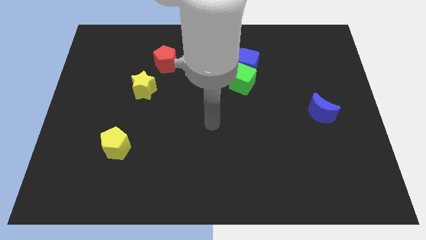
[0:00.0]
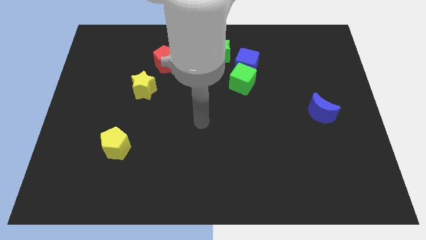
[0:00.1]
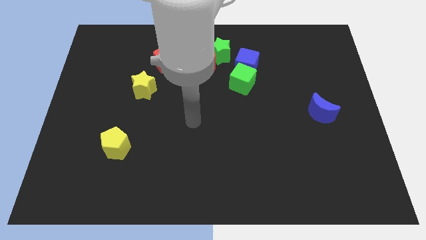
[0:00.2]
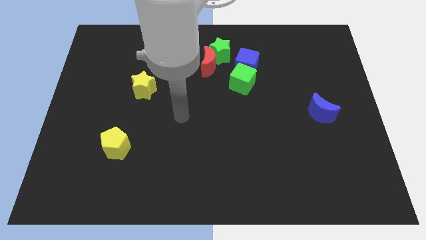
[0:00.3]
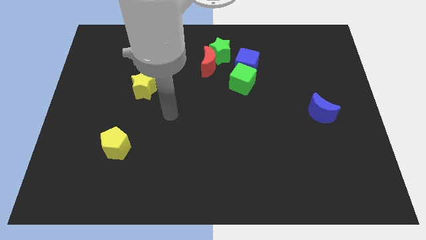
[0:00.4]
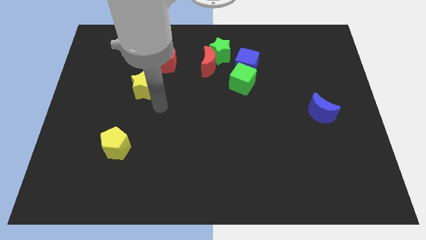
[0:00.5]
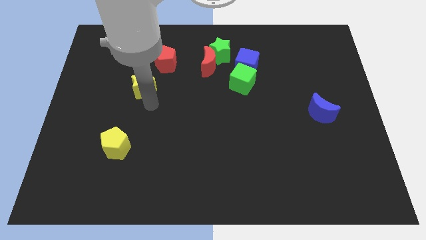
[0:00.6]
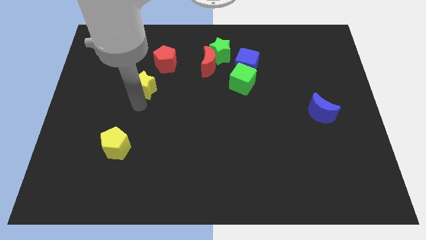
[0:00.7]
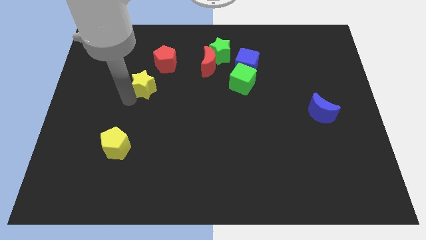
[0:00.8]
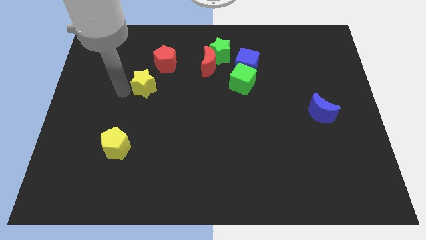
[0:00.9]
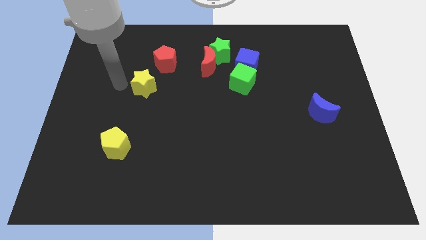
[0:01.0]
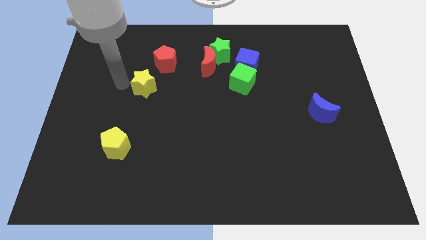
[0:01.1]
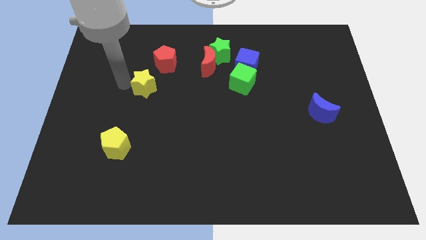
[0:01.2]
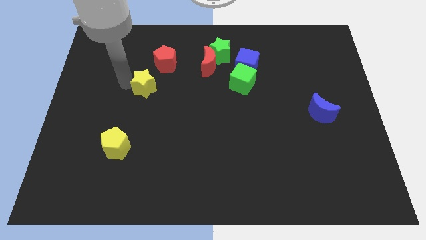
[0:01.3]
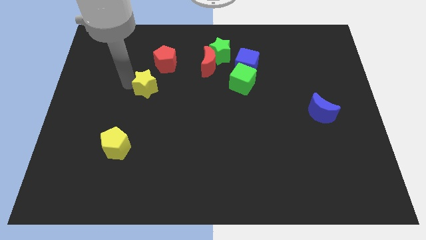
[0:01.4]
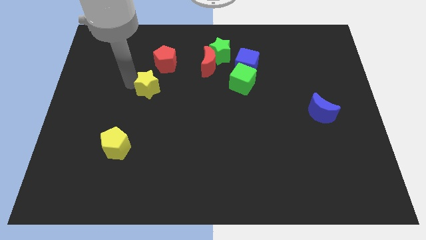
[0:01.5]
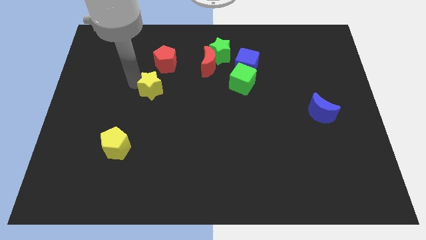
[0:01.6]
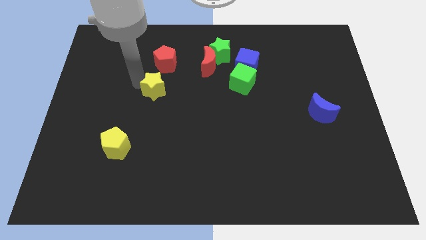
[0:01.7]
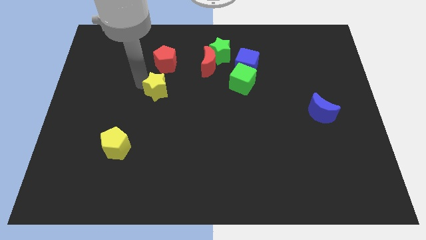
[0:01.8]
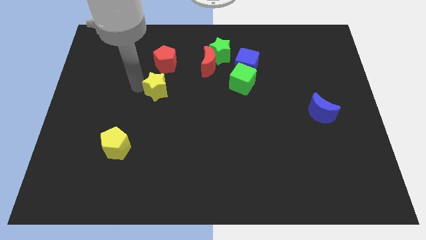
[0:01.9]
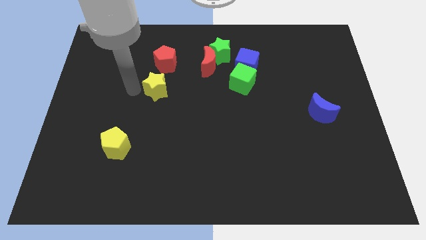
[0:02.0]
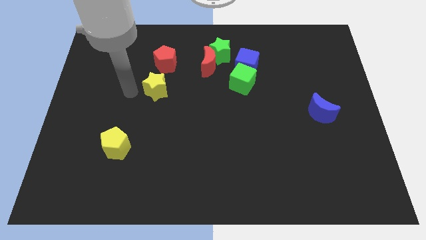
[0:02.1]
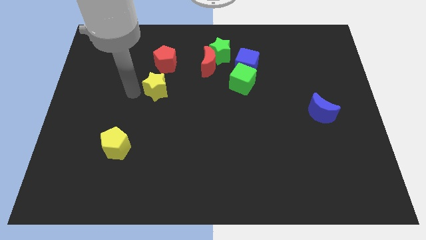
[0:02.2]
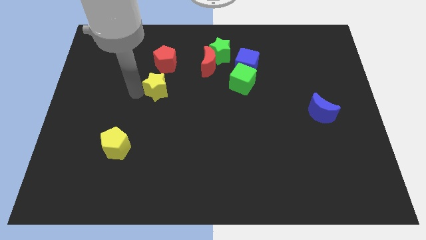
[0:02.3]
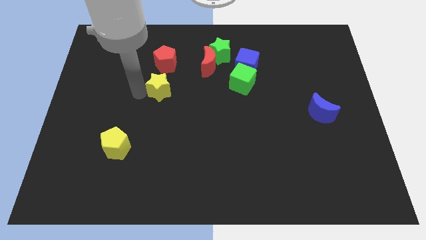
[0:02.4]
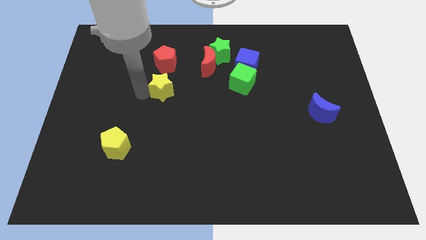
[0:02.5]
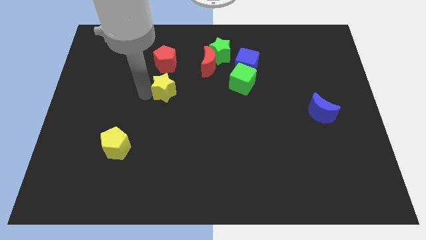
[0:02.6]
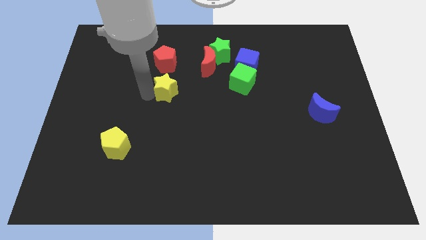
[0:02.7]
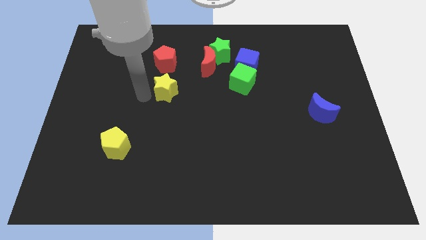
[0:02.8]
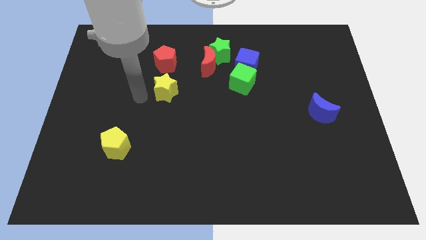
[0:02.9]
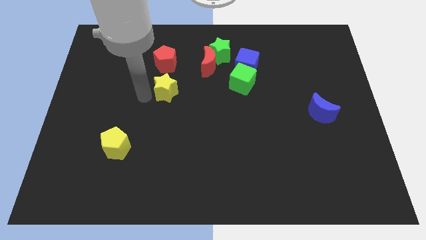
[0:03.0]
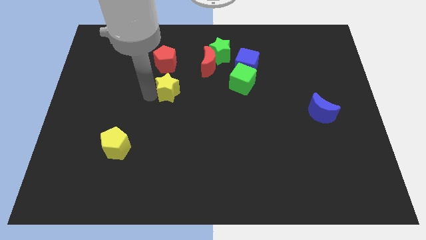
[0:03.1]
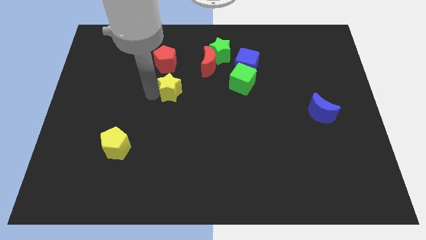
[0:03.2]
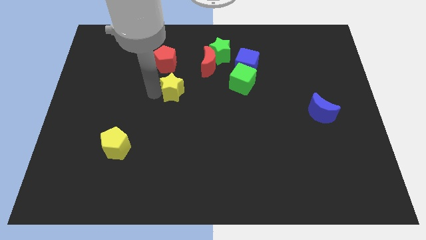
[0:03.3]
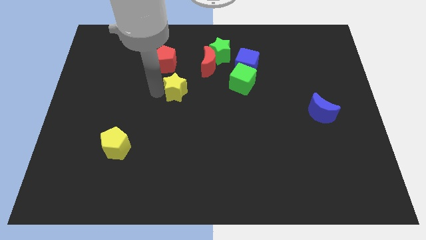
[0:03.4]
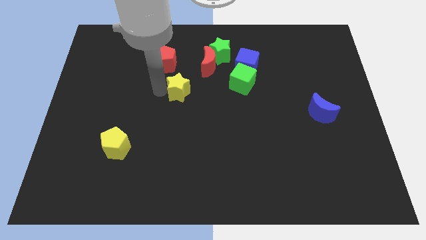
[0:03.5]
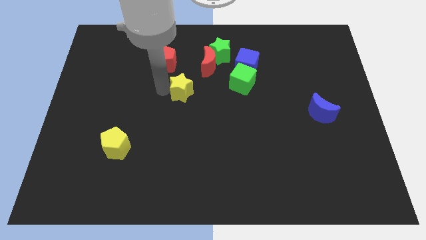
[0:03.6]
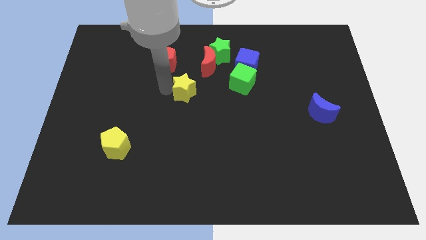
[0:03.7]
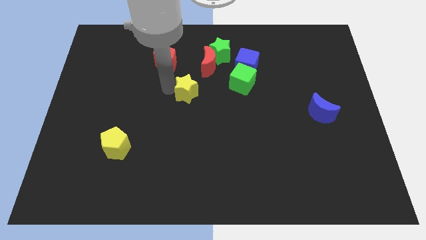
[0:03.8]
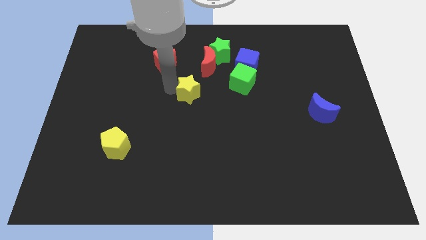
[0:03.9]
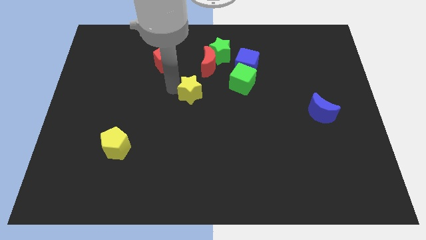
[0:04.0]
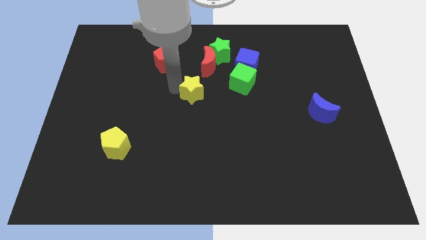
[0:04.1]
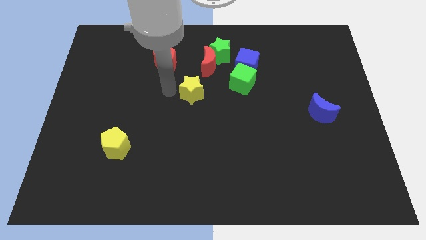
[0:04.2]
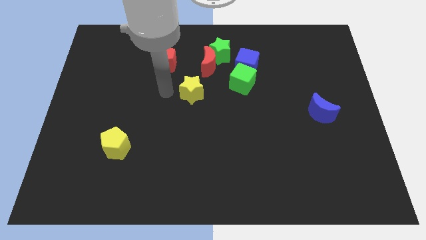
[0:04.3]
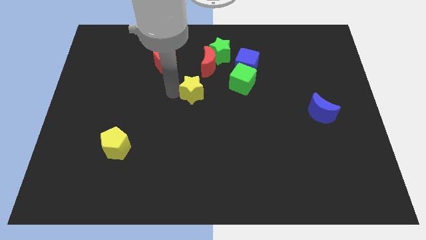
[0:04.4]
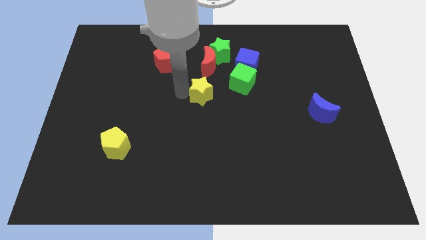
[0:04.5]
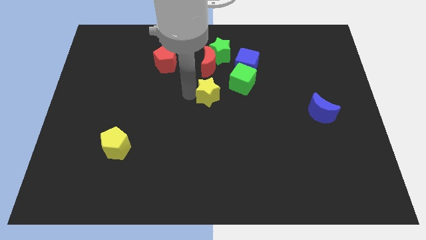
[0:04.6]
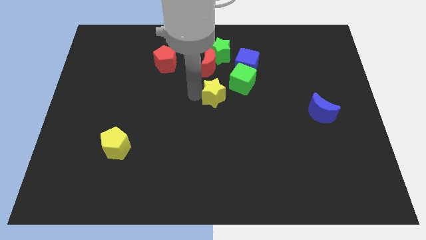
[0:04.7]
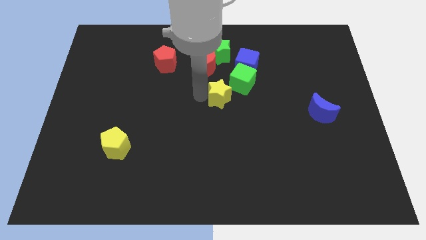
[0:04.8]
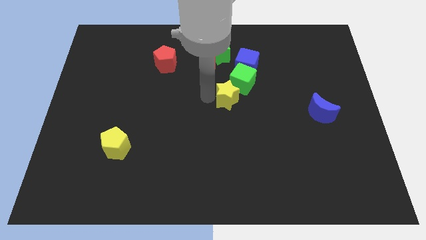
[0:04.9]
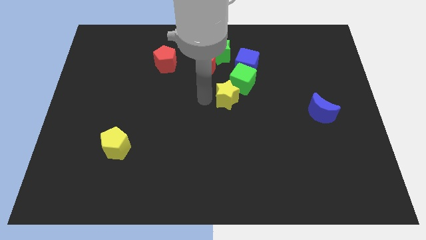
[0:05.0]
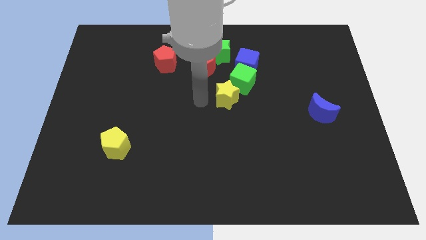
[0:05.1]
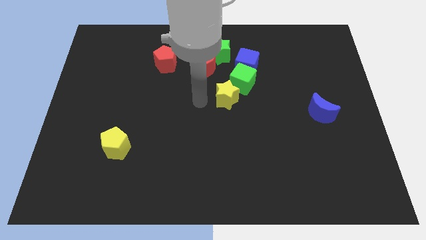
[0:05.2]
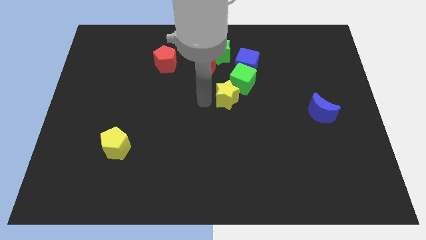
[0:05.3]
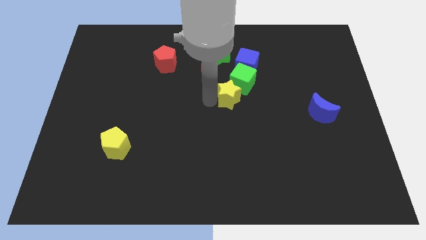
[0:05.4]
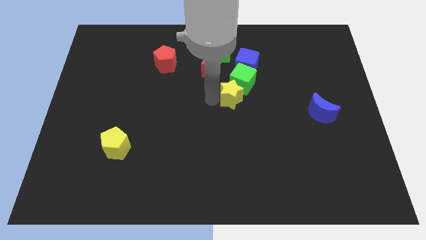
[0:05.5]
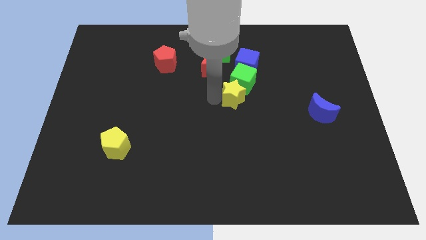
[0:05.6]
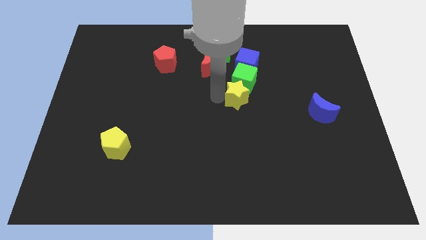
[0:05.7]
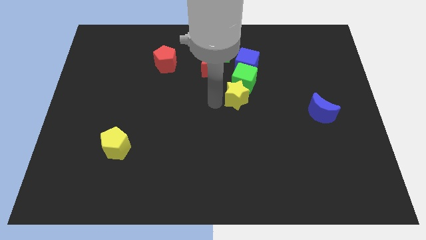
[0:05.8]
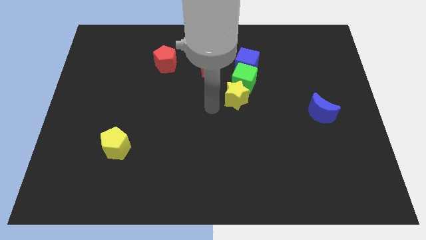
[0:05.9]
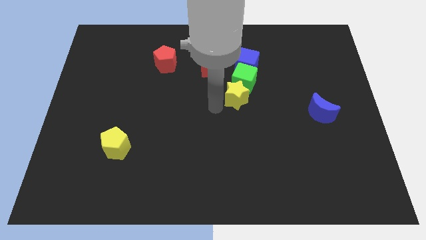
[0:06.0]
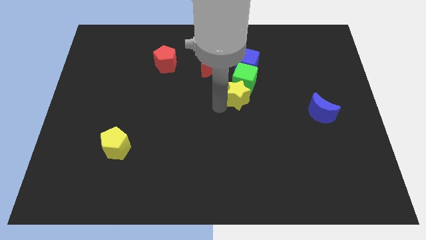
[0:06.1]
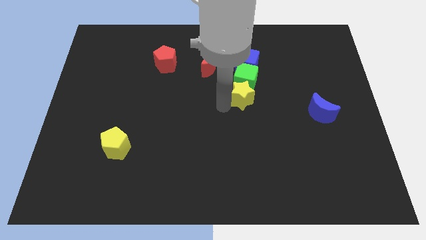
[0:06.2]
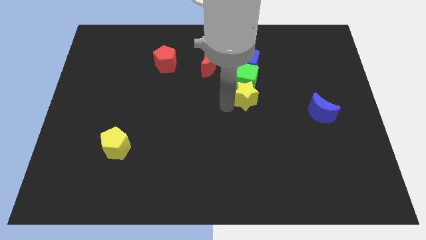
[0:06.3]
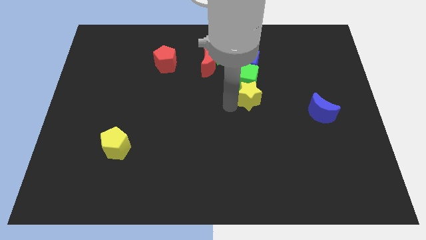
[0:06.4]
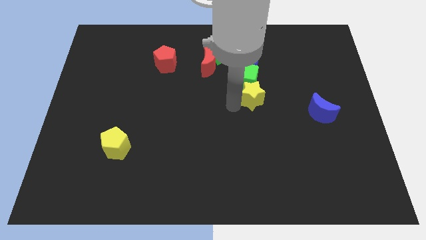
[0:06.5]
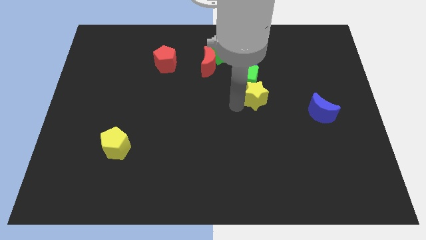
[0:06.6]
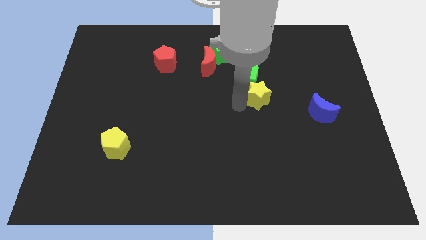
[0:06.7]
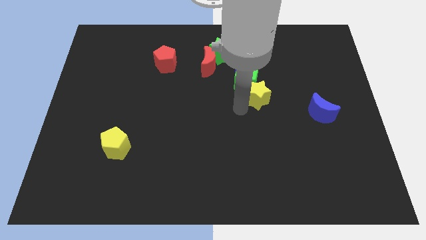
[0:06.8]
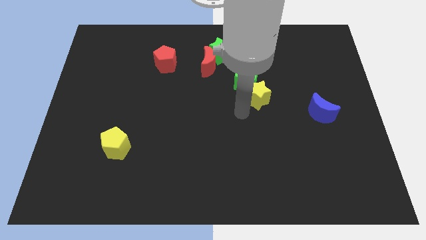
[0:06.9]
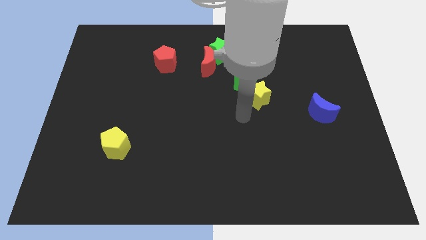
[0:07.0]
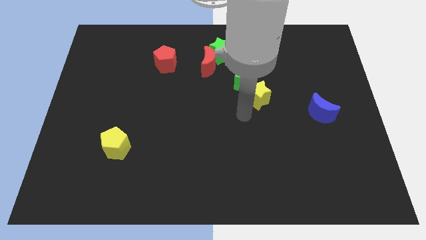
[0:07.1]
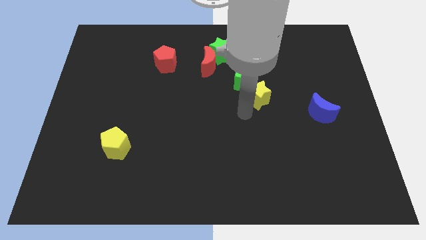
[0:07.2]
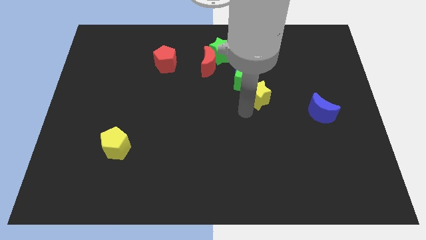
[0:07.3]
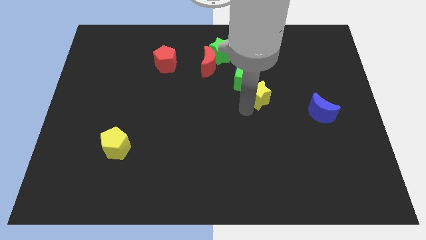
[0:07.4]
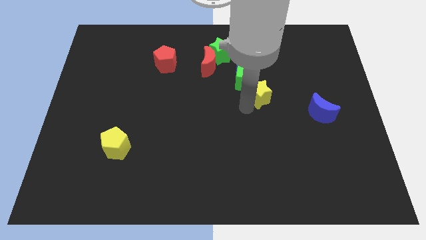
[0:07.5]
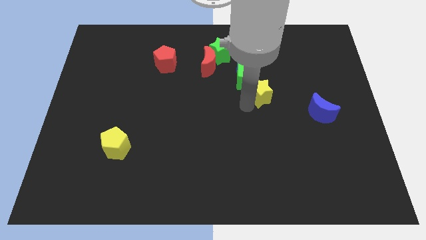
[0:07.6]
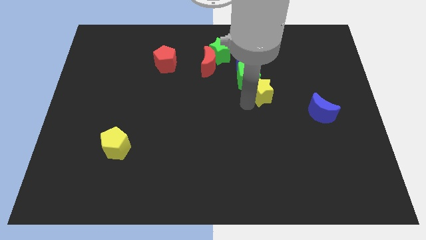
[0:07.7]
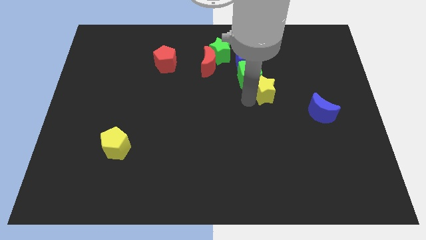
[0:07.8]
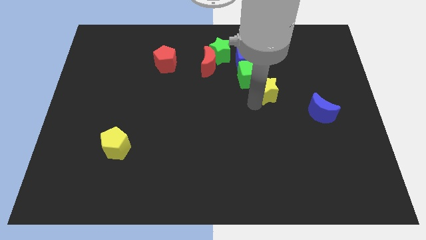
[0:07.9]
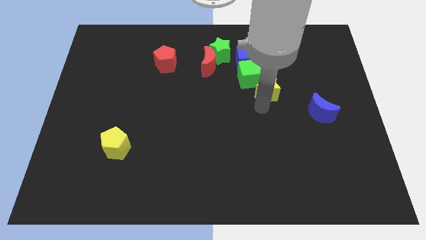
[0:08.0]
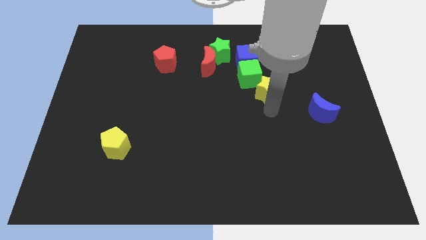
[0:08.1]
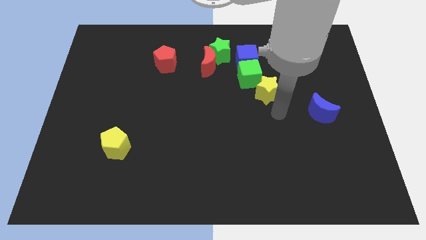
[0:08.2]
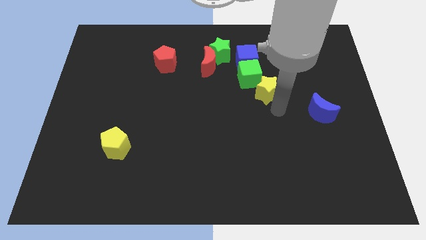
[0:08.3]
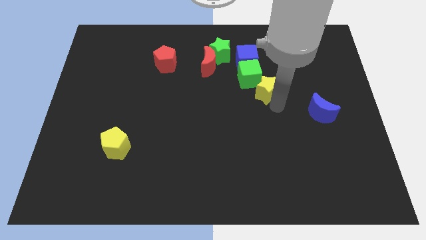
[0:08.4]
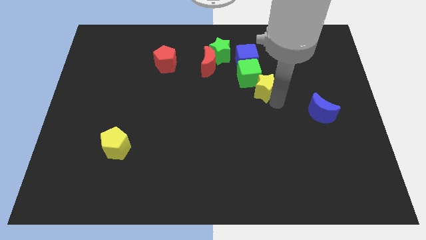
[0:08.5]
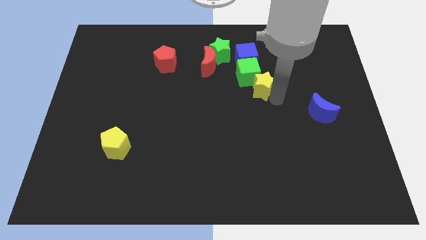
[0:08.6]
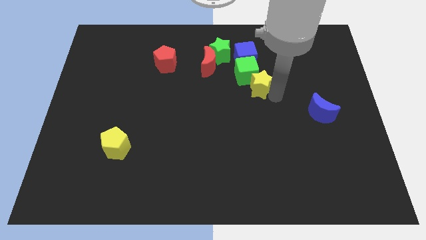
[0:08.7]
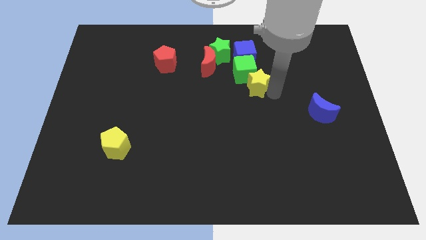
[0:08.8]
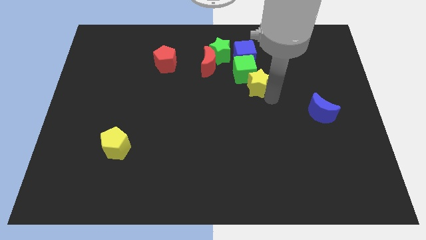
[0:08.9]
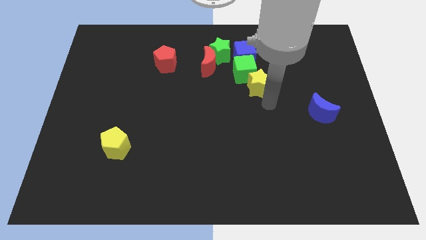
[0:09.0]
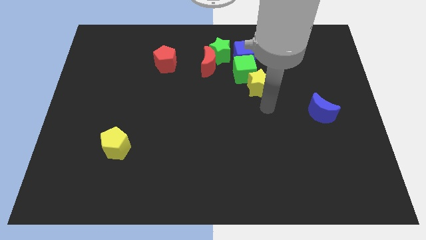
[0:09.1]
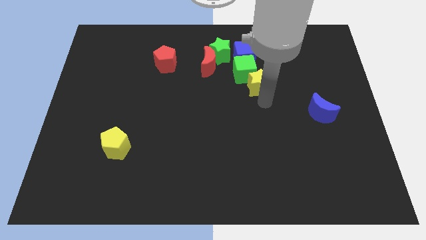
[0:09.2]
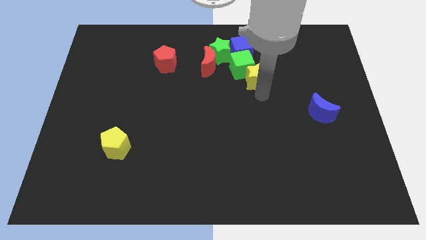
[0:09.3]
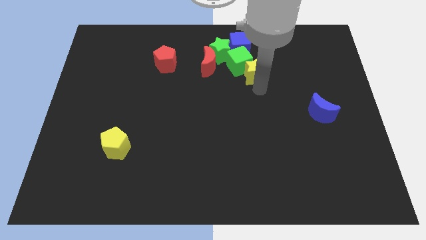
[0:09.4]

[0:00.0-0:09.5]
push the yellow star right of the red moon
